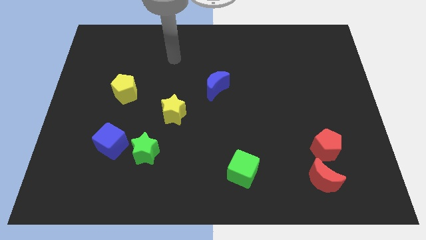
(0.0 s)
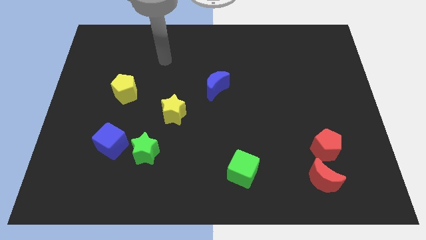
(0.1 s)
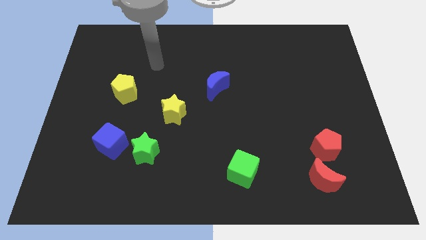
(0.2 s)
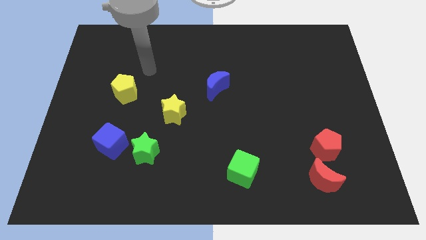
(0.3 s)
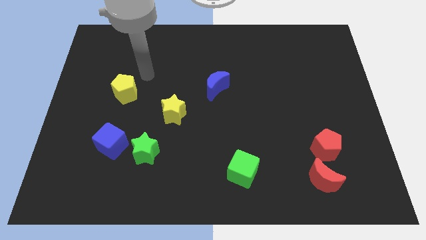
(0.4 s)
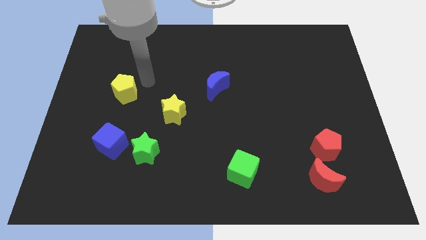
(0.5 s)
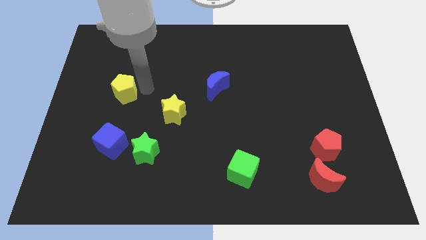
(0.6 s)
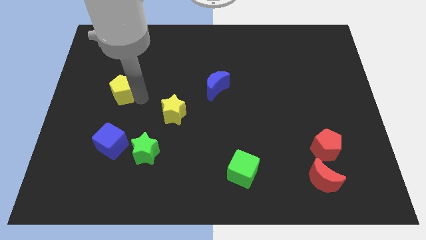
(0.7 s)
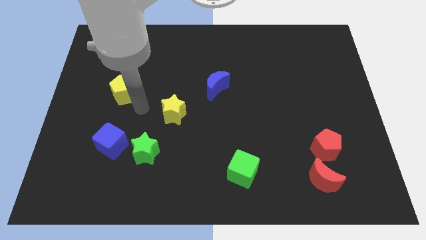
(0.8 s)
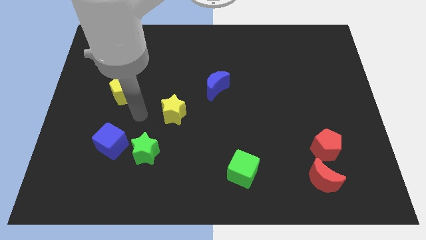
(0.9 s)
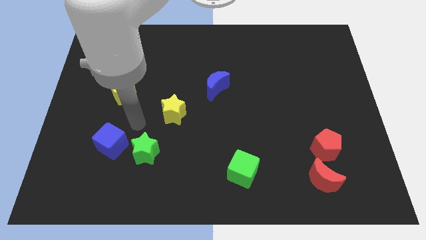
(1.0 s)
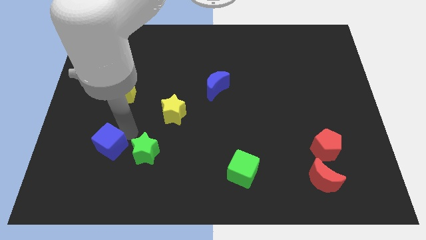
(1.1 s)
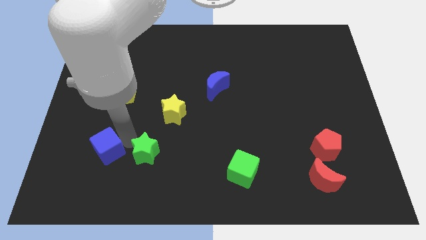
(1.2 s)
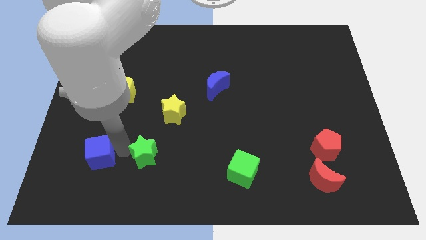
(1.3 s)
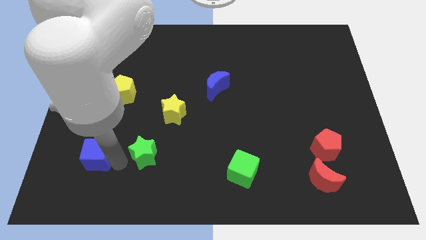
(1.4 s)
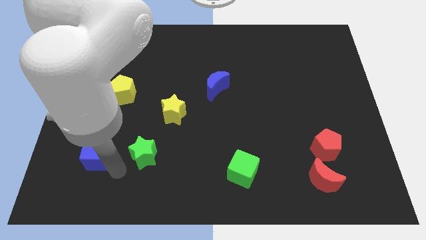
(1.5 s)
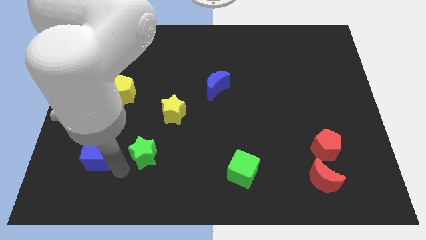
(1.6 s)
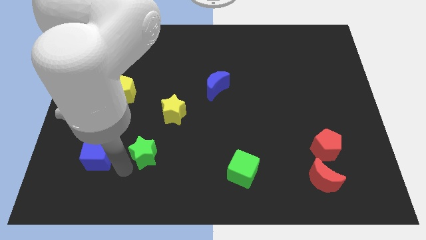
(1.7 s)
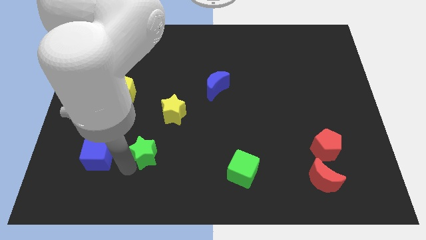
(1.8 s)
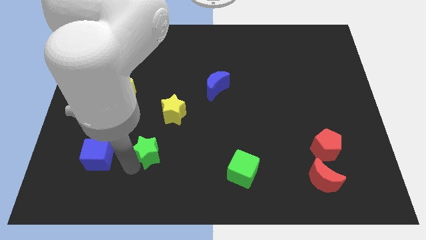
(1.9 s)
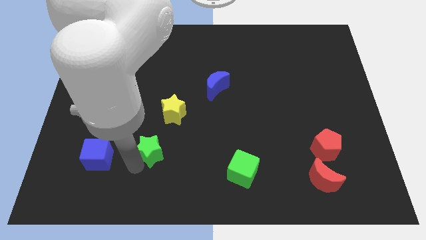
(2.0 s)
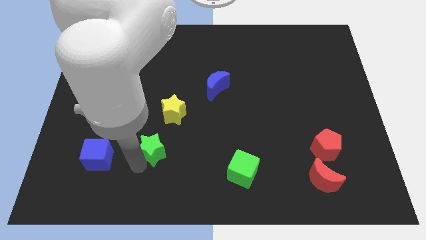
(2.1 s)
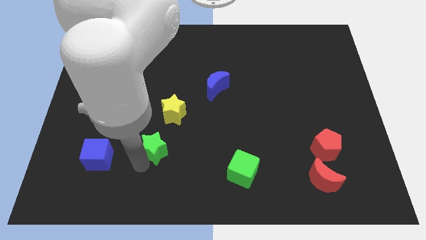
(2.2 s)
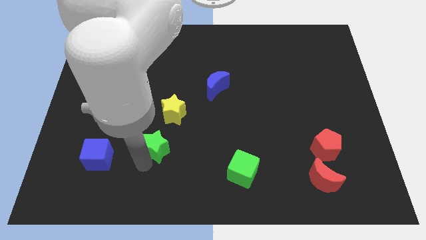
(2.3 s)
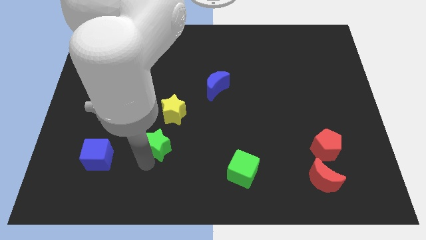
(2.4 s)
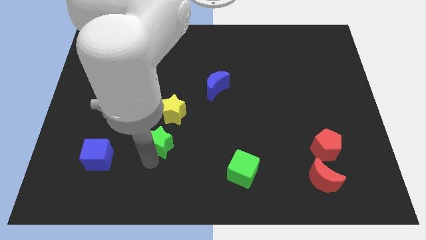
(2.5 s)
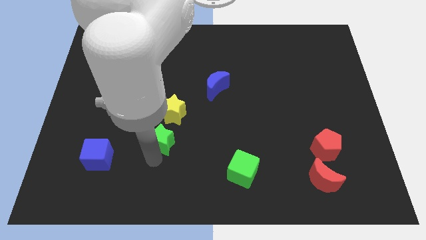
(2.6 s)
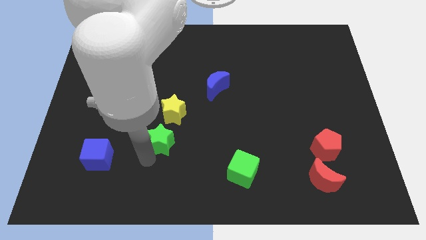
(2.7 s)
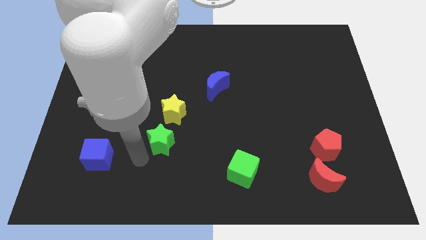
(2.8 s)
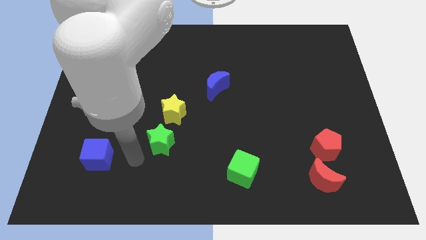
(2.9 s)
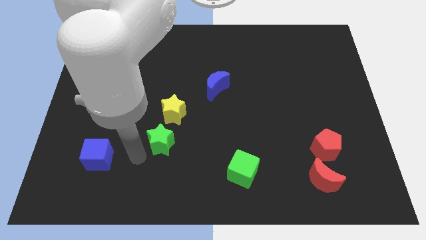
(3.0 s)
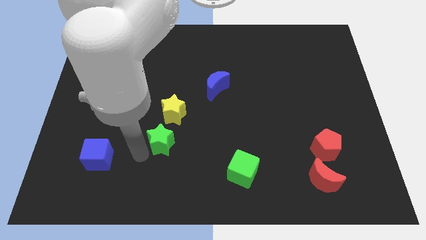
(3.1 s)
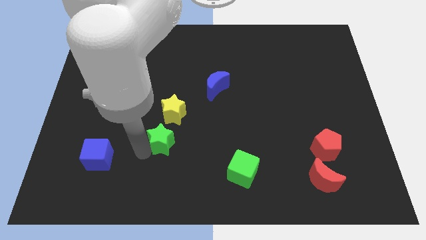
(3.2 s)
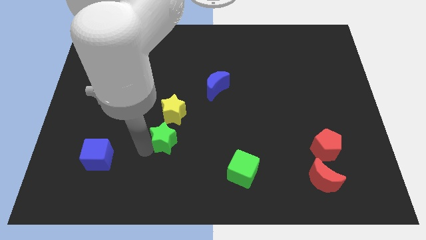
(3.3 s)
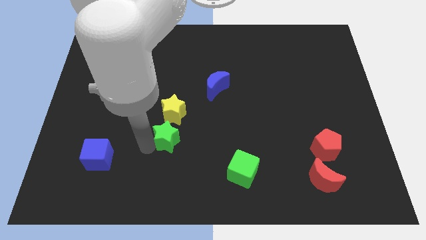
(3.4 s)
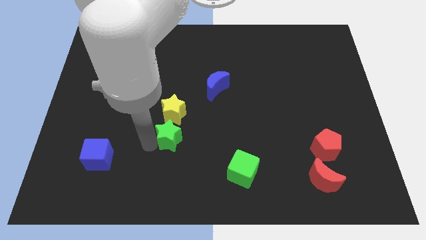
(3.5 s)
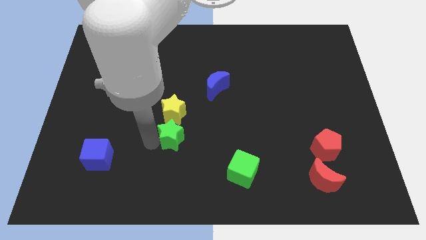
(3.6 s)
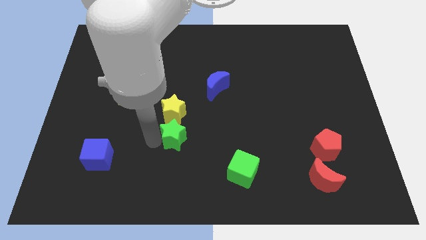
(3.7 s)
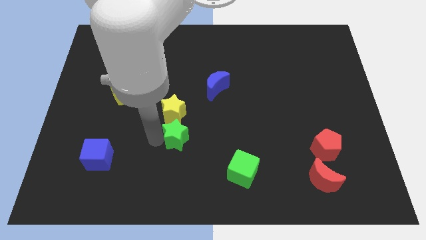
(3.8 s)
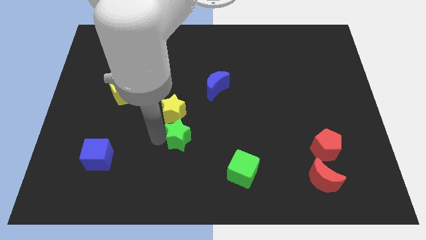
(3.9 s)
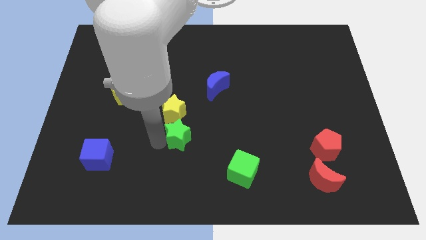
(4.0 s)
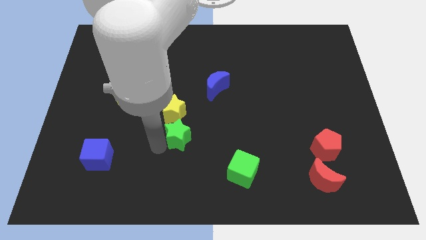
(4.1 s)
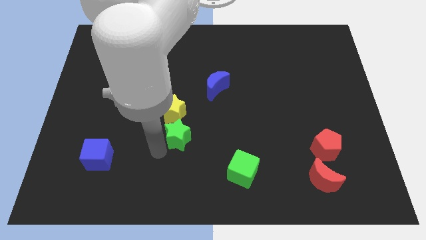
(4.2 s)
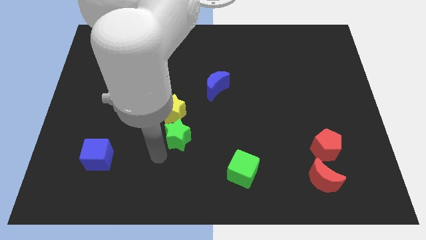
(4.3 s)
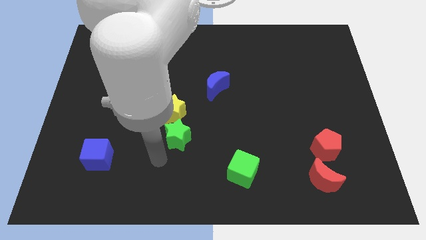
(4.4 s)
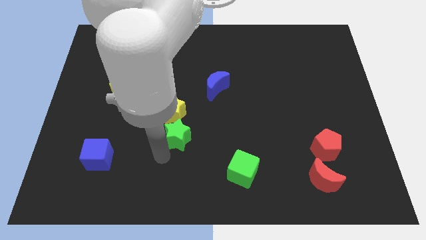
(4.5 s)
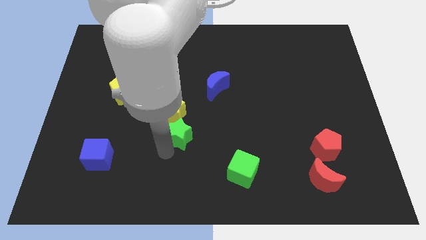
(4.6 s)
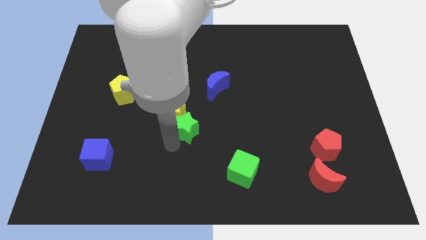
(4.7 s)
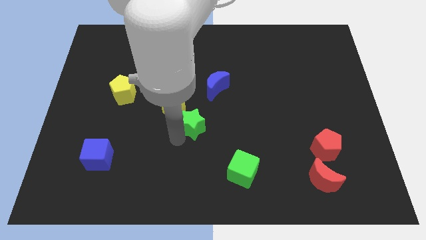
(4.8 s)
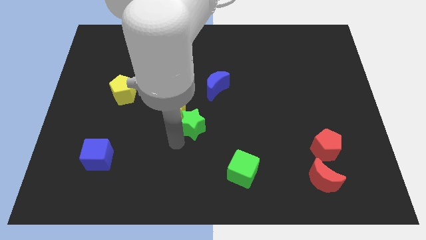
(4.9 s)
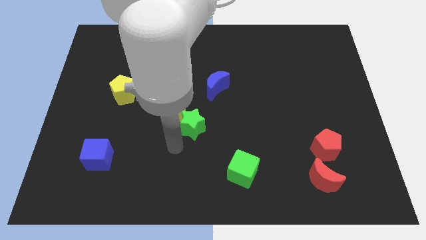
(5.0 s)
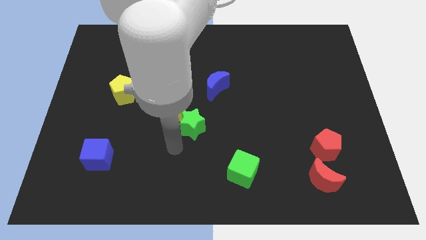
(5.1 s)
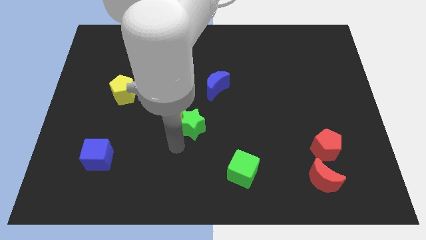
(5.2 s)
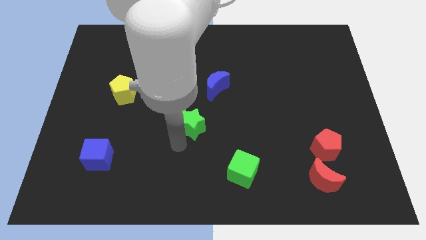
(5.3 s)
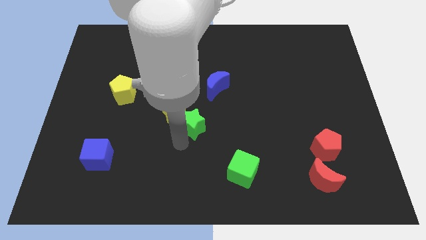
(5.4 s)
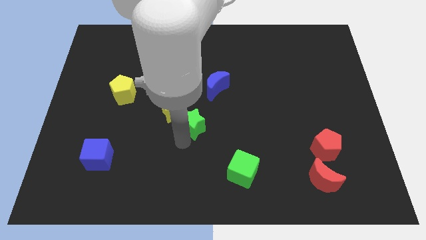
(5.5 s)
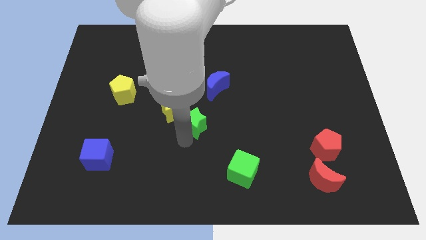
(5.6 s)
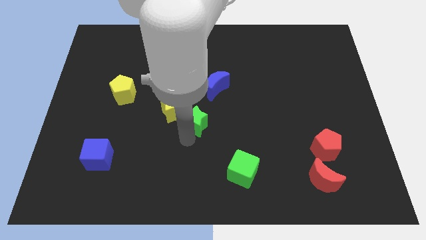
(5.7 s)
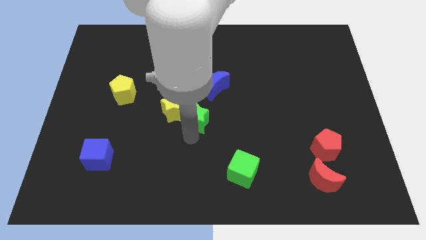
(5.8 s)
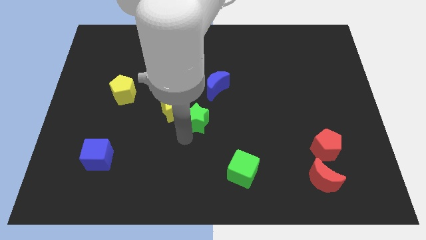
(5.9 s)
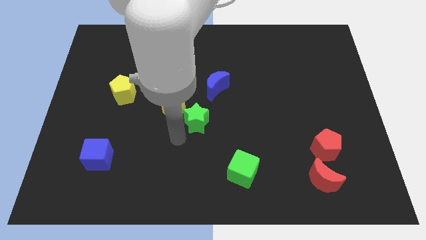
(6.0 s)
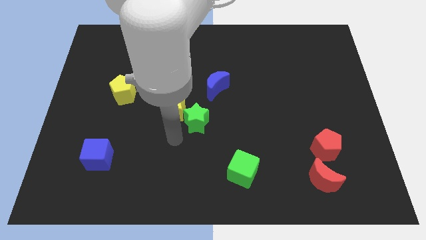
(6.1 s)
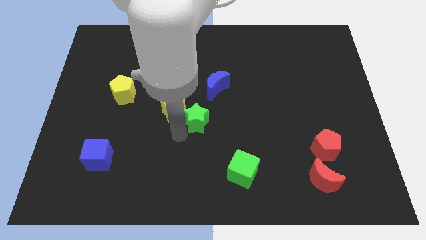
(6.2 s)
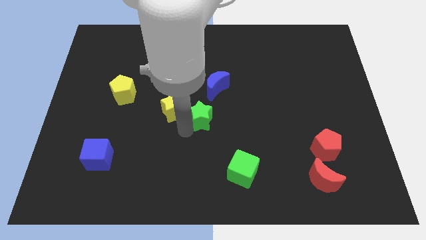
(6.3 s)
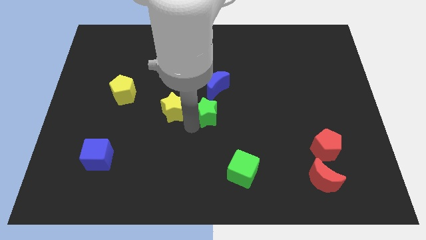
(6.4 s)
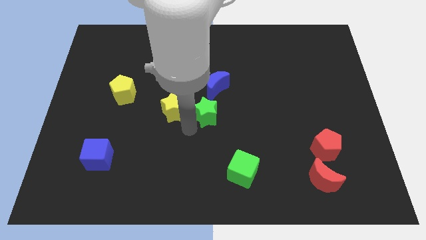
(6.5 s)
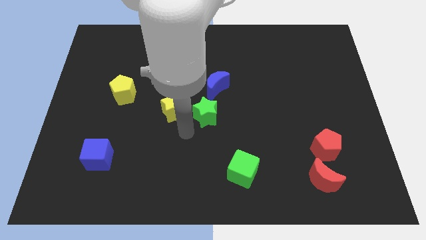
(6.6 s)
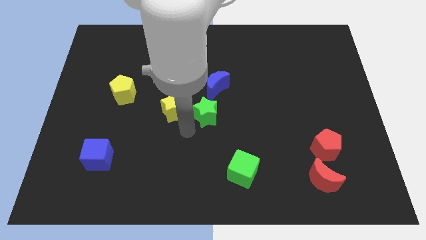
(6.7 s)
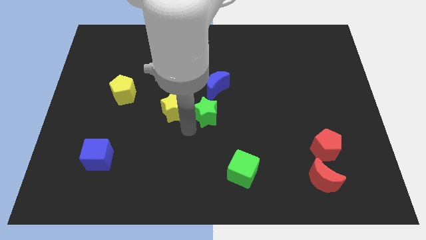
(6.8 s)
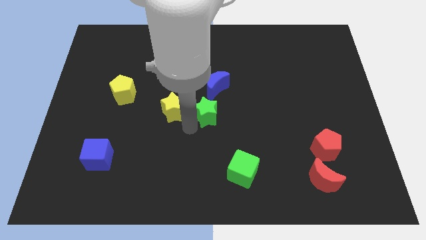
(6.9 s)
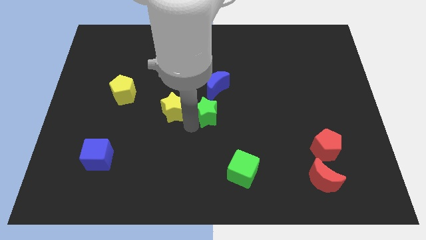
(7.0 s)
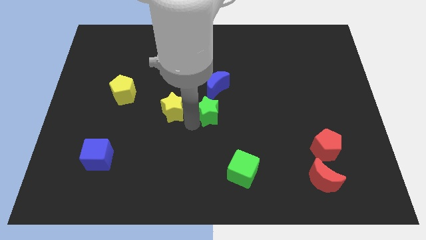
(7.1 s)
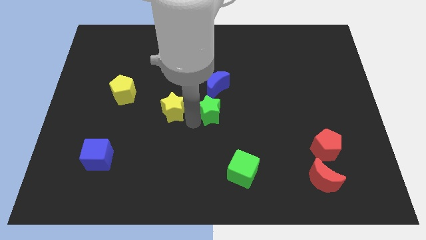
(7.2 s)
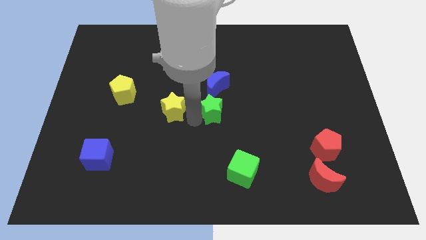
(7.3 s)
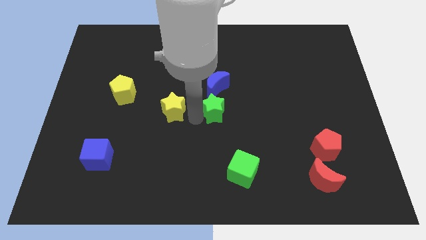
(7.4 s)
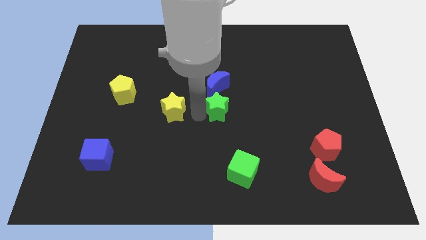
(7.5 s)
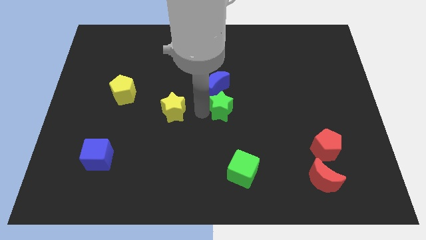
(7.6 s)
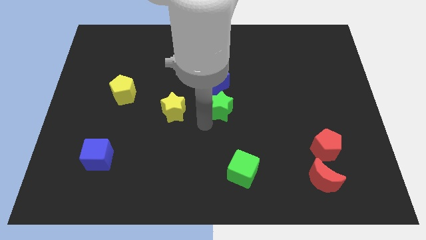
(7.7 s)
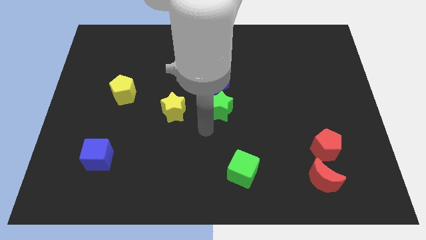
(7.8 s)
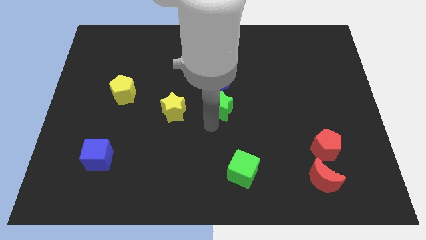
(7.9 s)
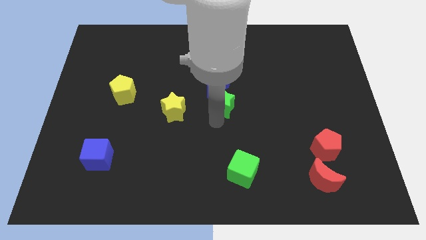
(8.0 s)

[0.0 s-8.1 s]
push the green star up and right diagonally
